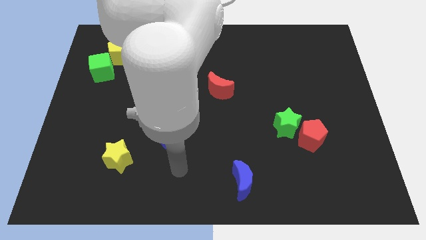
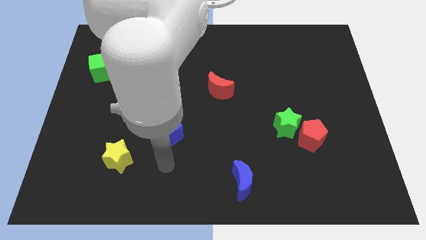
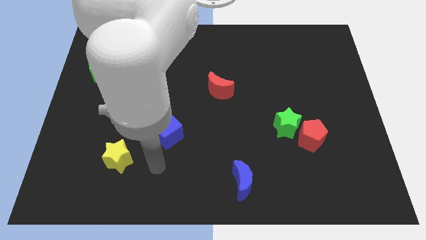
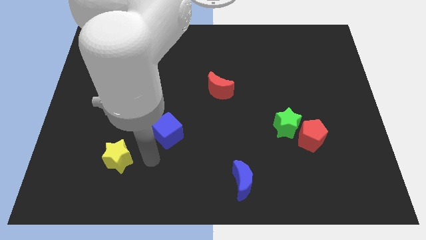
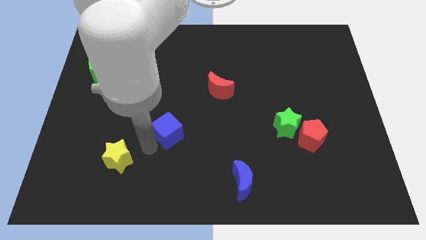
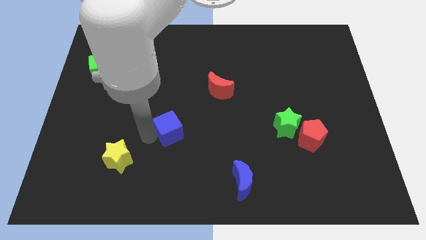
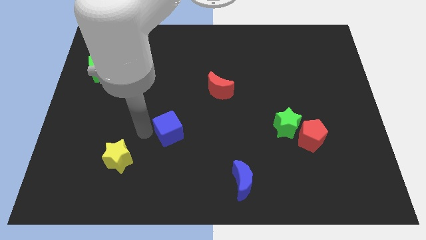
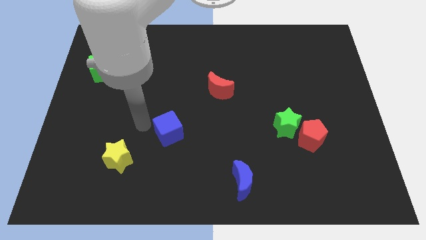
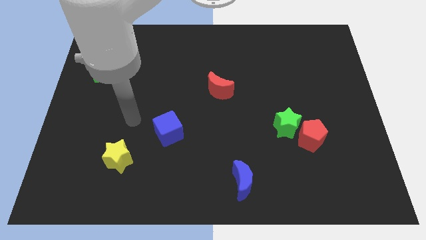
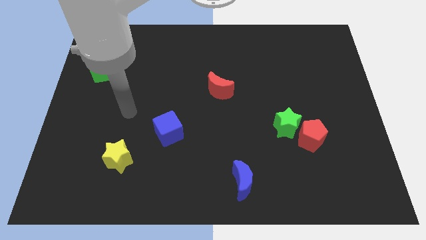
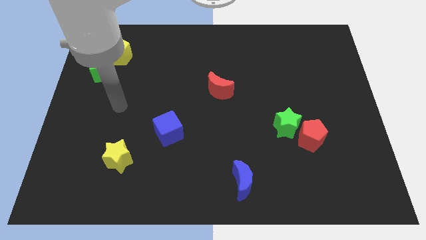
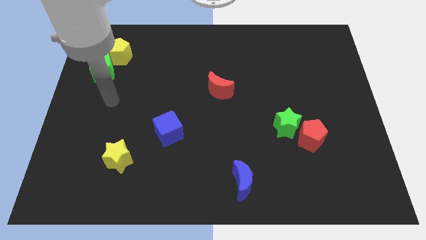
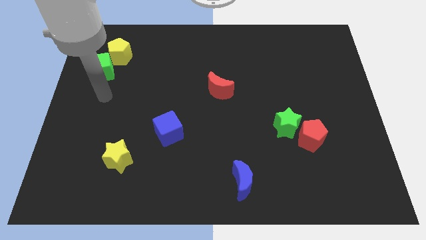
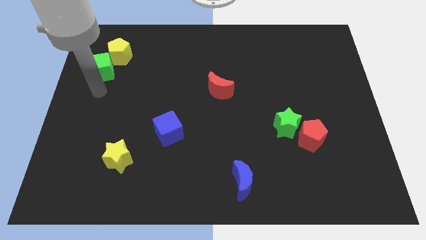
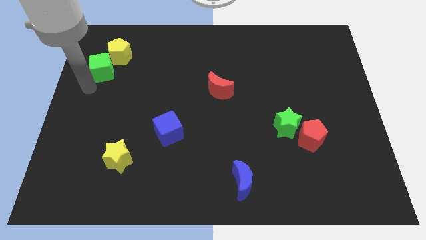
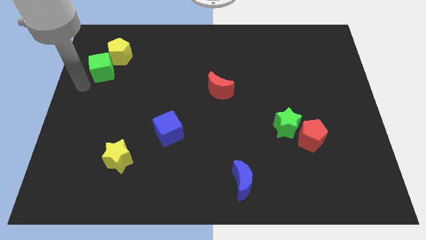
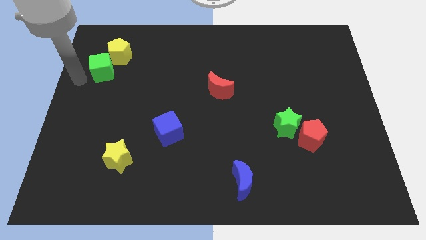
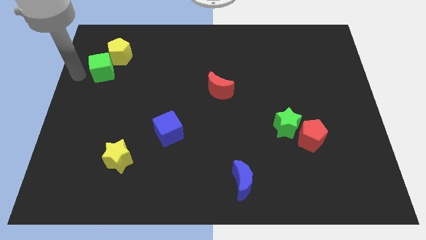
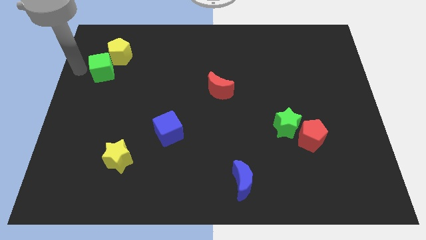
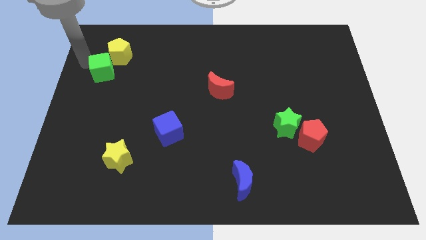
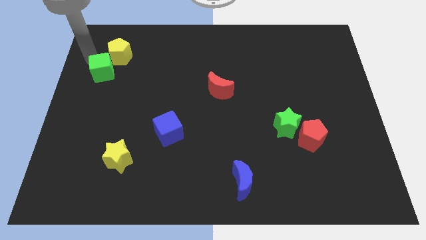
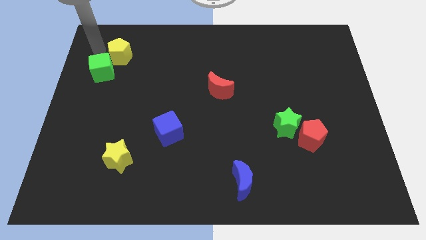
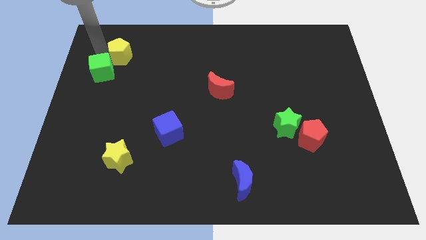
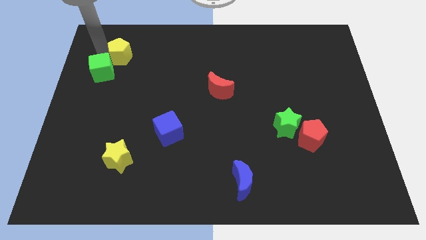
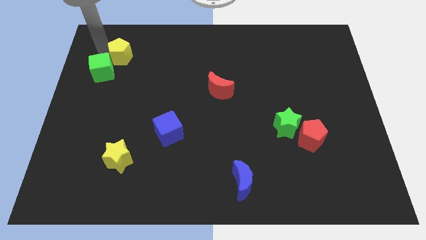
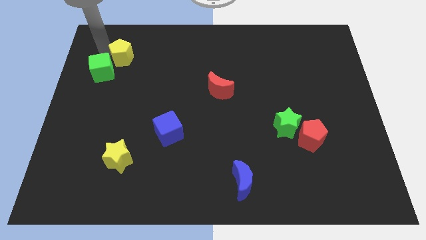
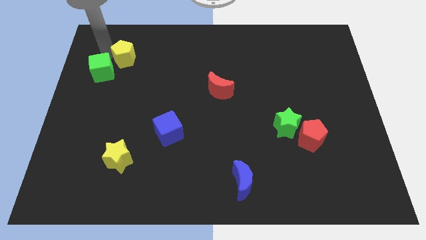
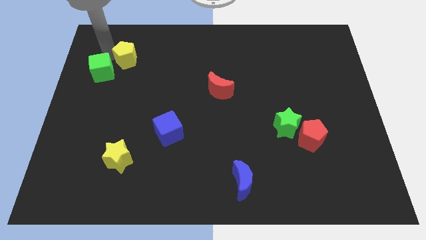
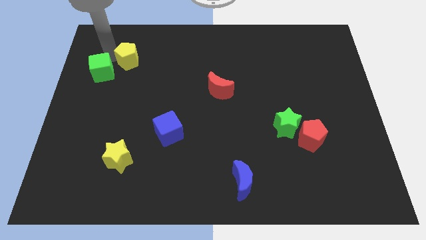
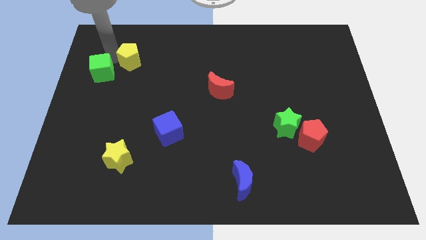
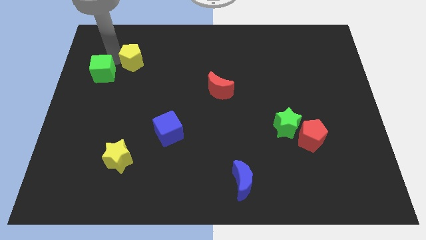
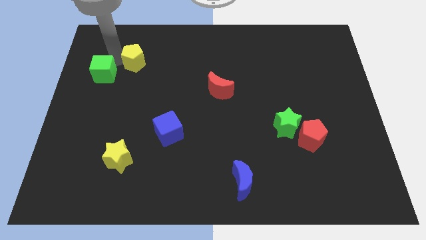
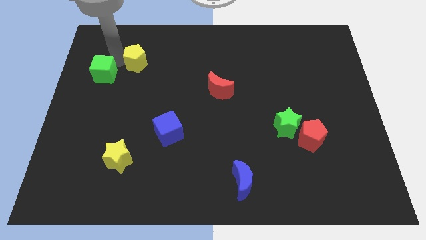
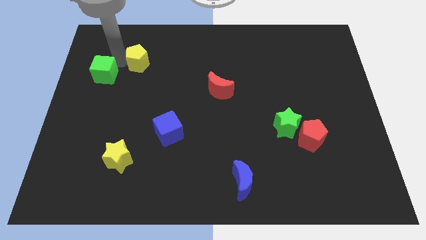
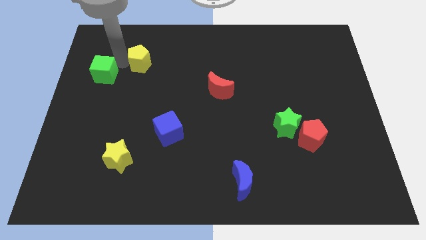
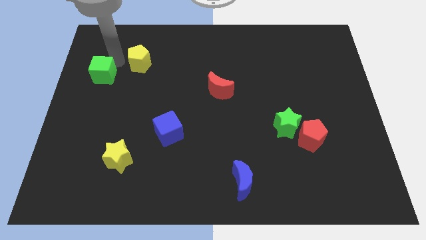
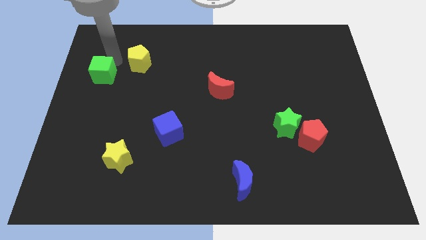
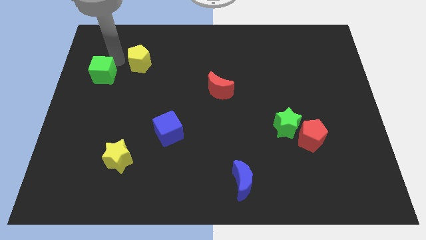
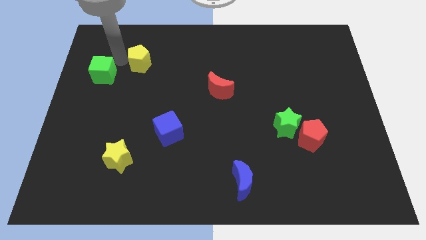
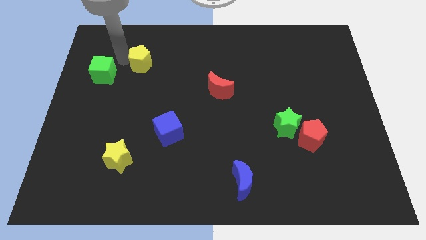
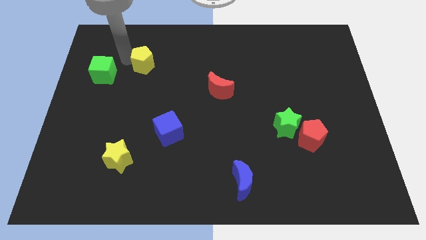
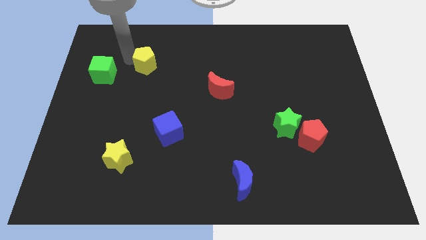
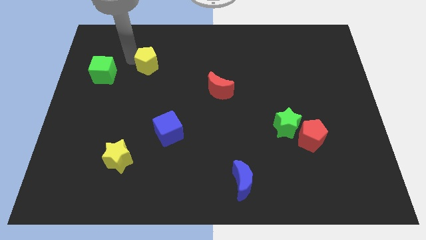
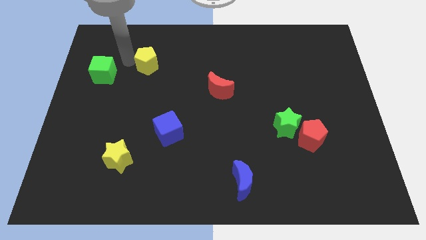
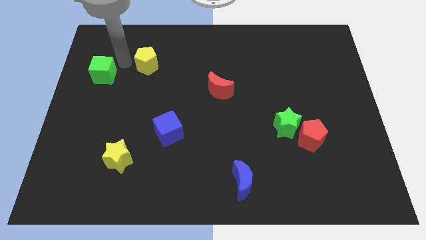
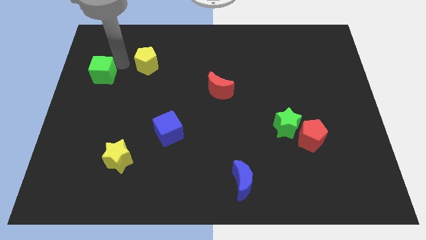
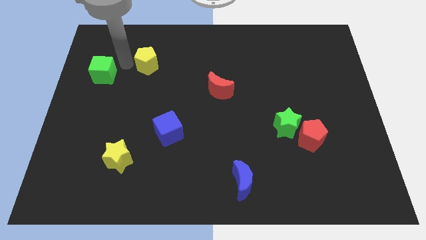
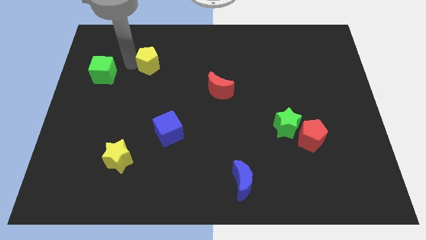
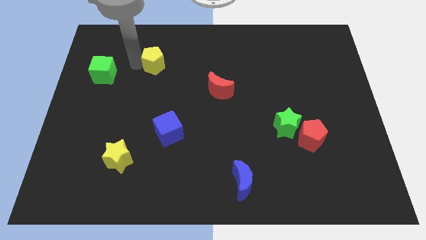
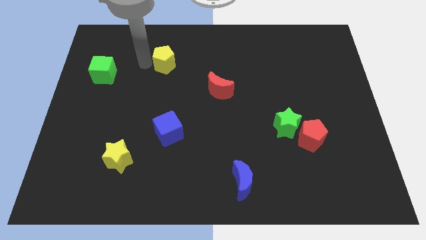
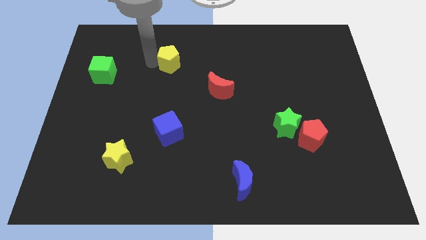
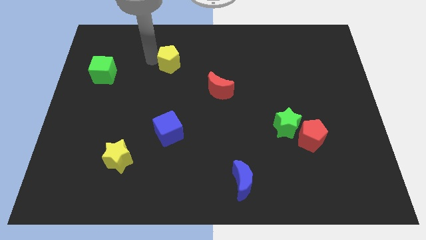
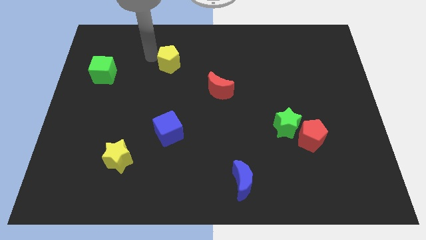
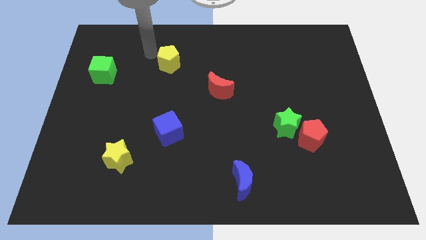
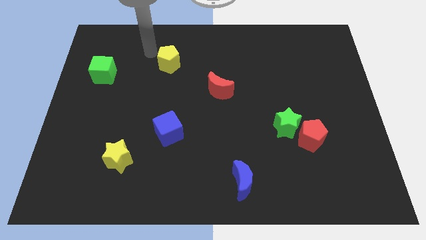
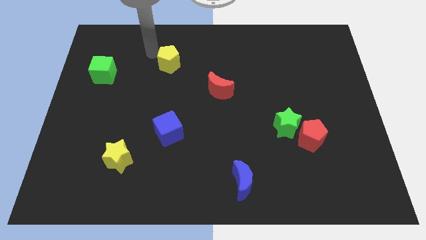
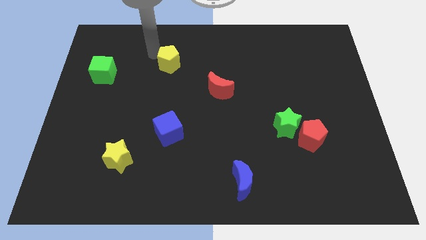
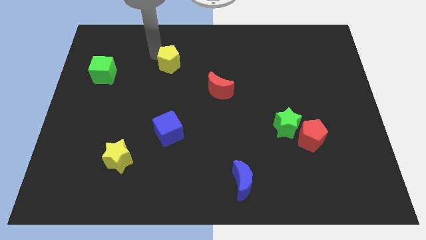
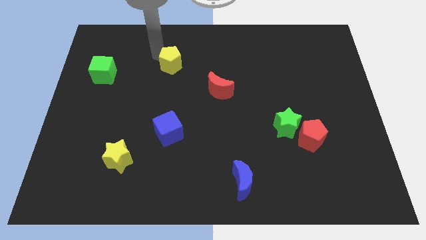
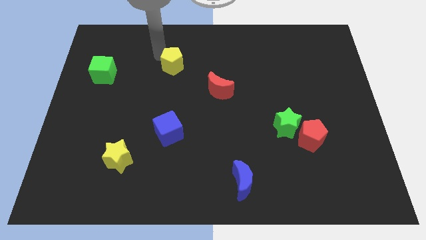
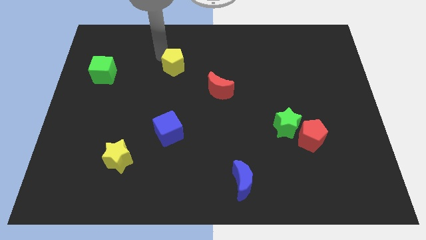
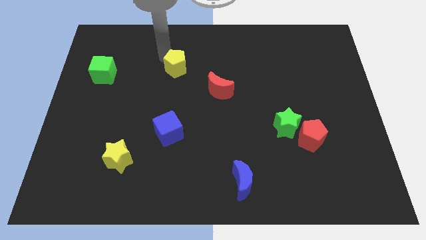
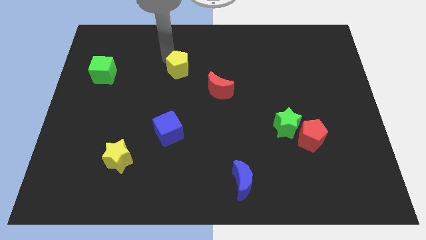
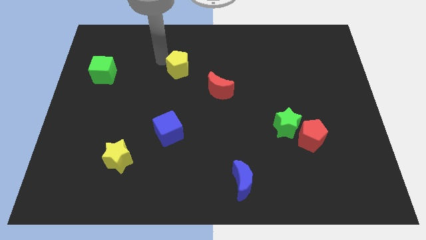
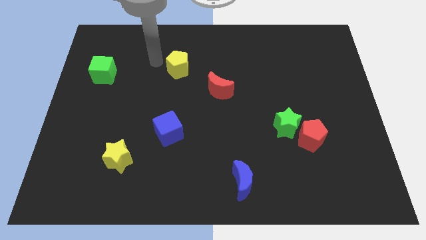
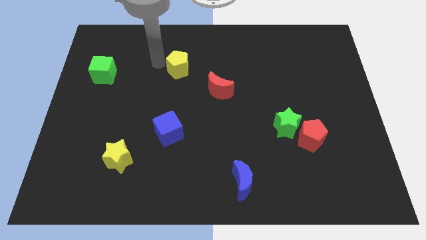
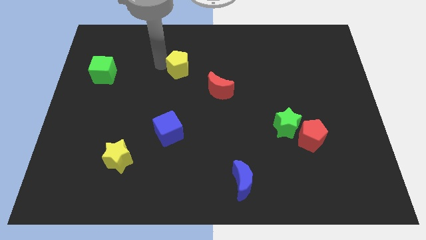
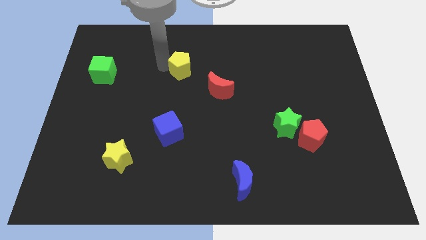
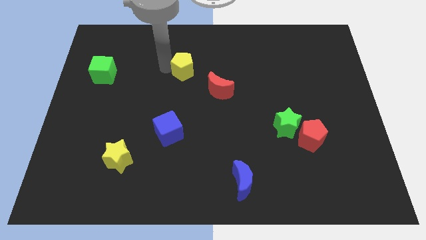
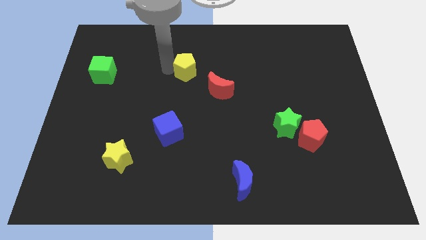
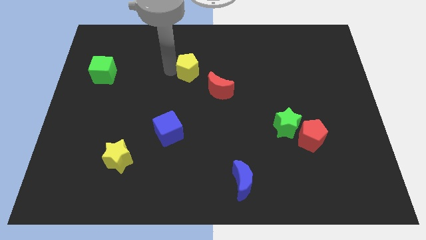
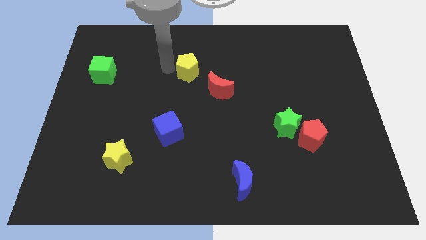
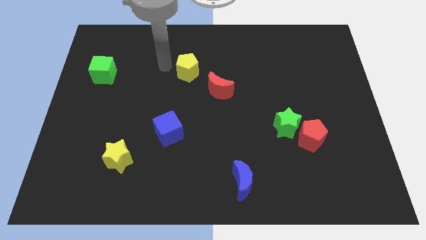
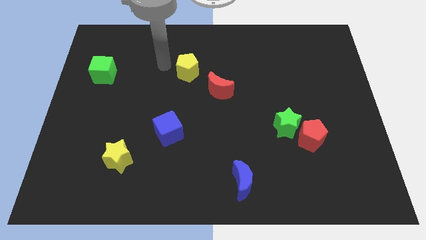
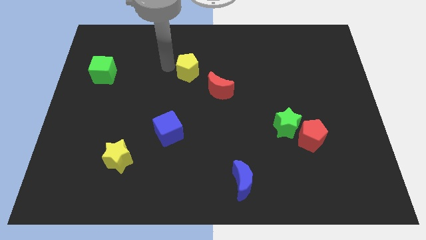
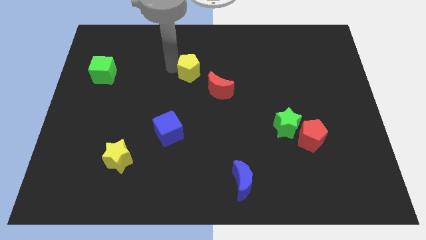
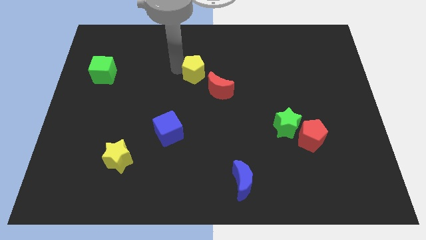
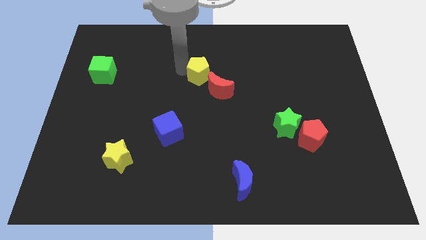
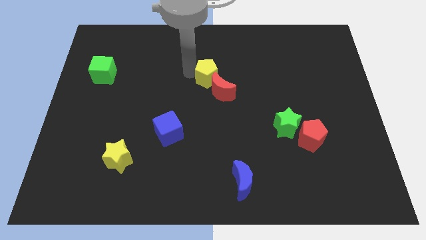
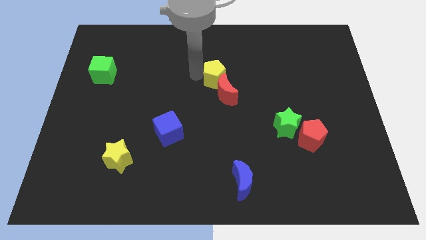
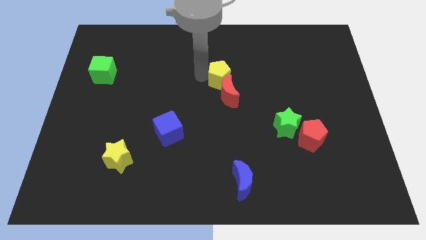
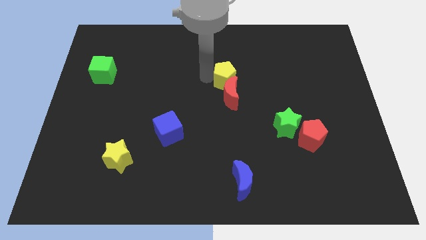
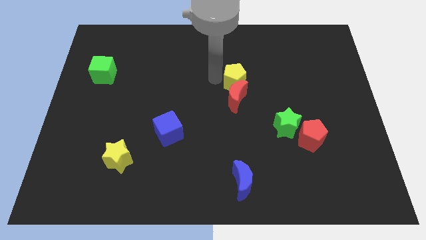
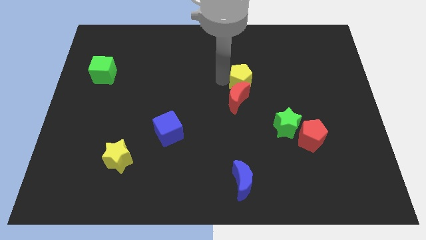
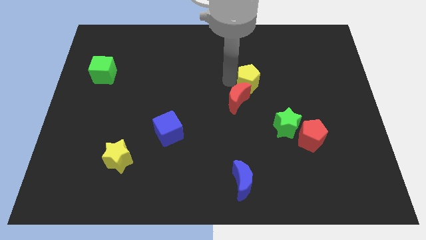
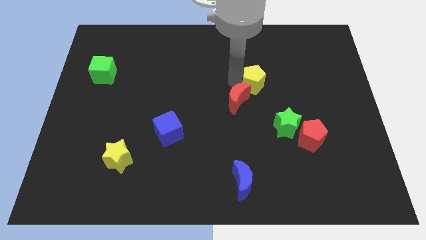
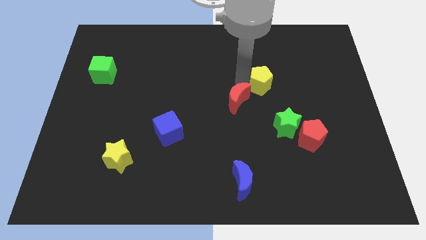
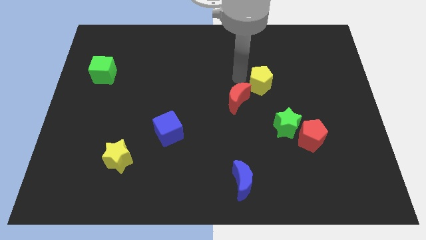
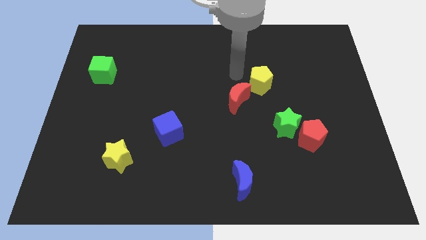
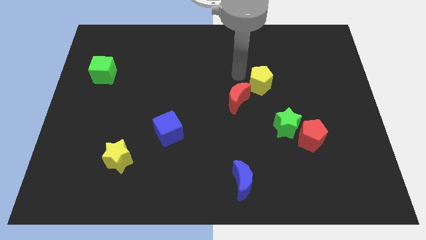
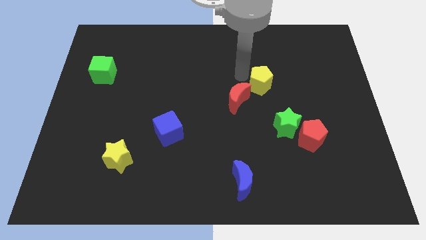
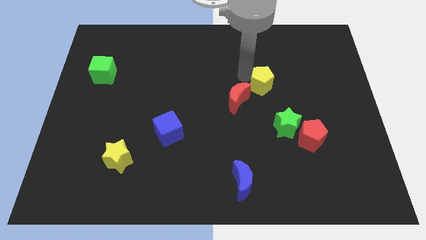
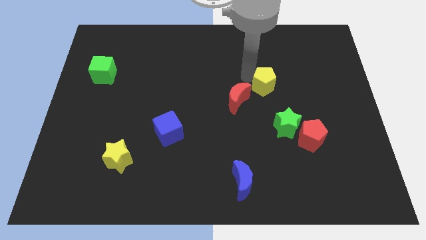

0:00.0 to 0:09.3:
push the yellow pentagon to the top side of the green star
